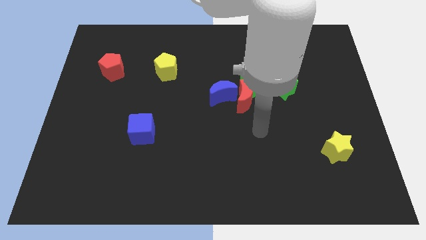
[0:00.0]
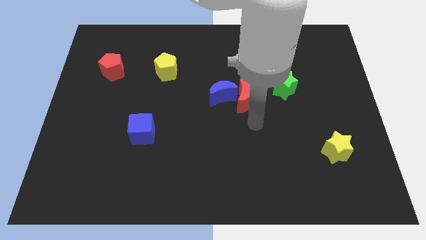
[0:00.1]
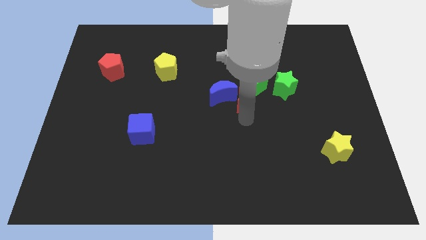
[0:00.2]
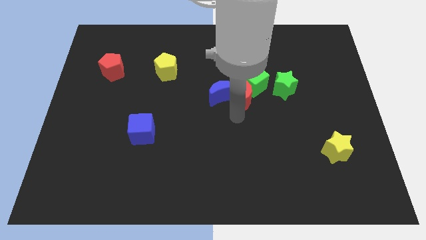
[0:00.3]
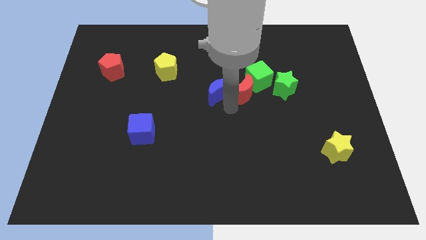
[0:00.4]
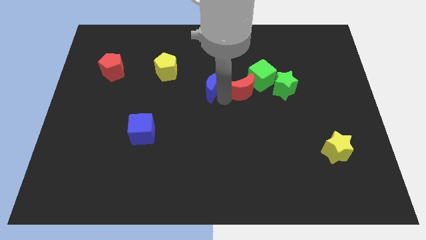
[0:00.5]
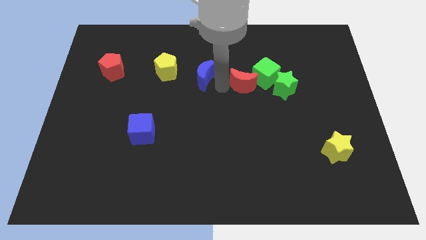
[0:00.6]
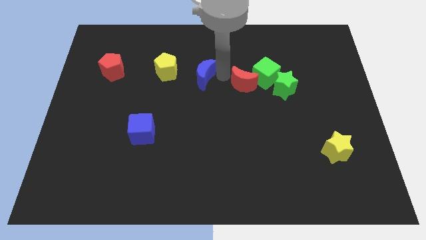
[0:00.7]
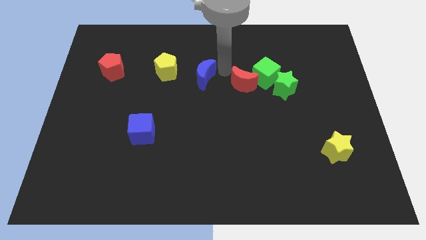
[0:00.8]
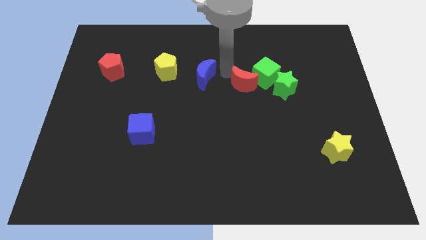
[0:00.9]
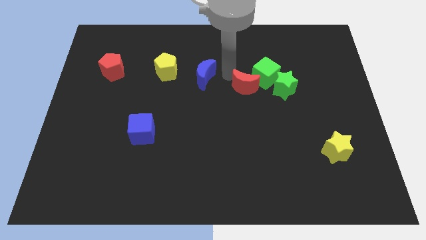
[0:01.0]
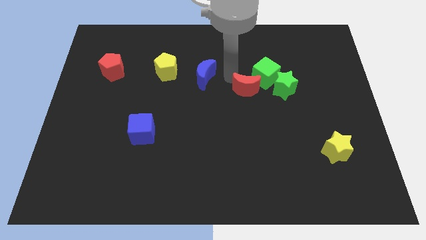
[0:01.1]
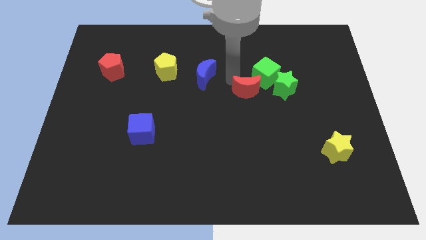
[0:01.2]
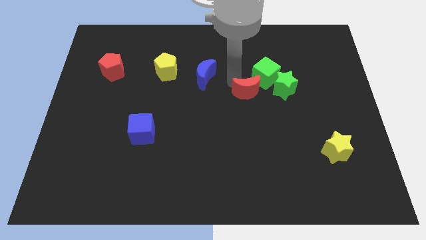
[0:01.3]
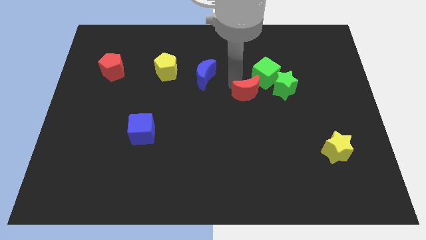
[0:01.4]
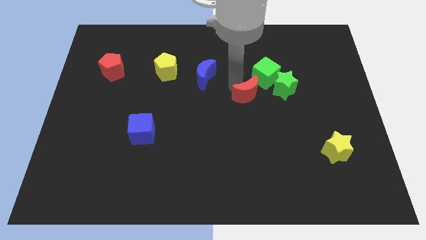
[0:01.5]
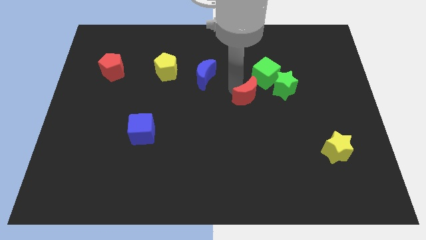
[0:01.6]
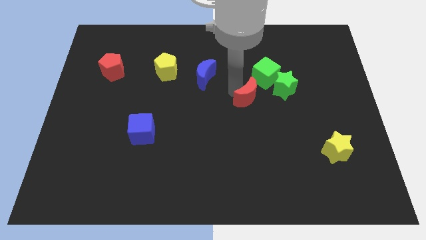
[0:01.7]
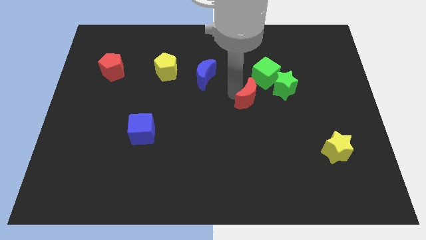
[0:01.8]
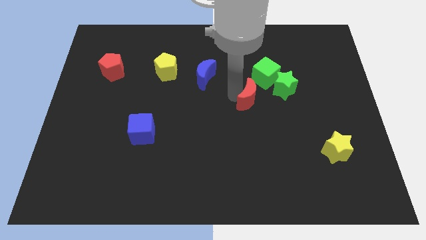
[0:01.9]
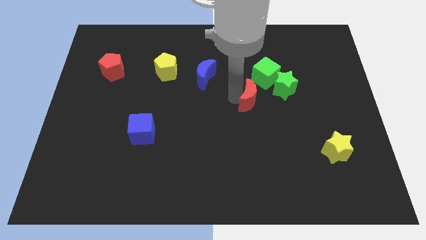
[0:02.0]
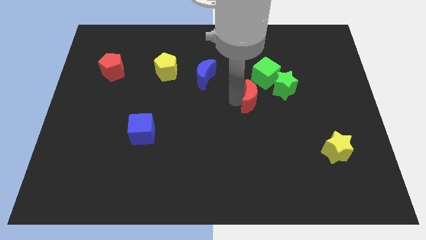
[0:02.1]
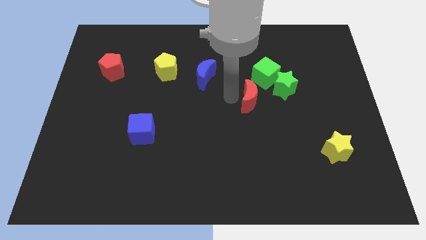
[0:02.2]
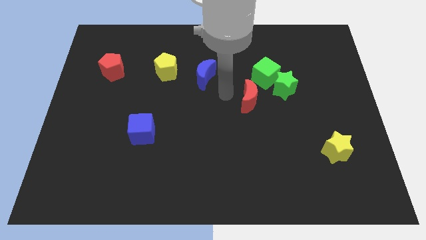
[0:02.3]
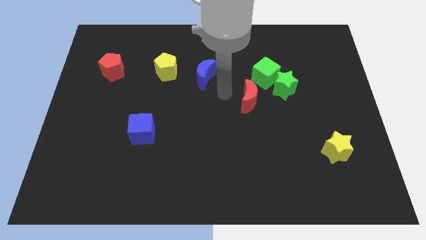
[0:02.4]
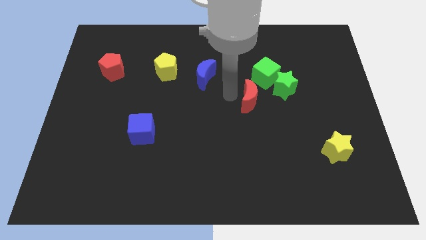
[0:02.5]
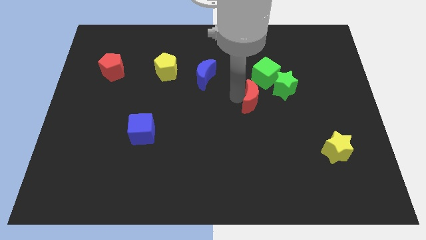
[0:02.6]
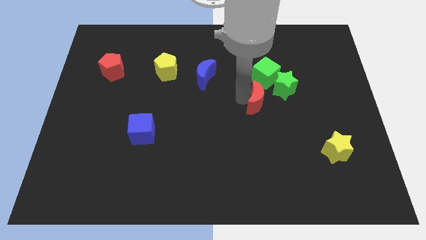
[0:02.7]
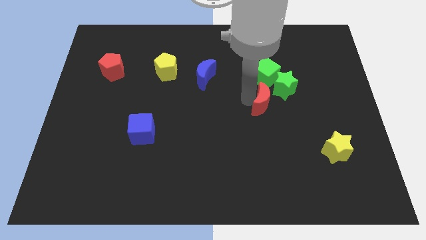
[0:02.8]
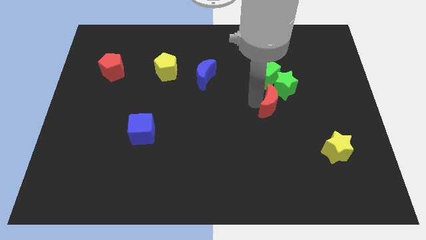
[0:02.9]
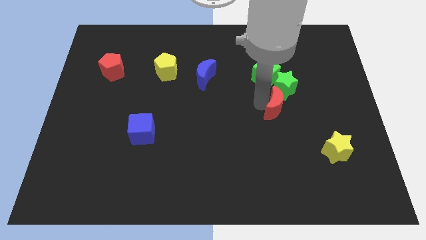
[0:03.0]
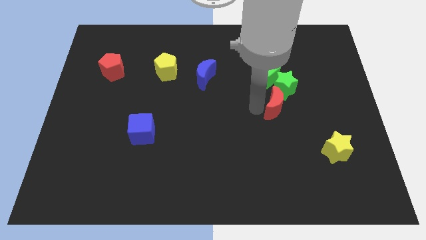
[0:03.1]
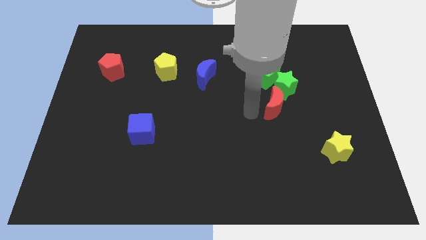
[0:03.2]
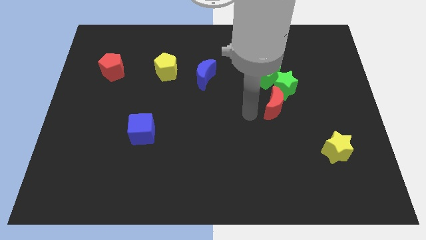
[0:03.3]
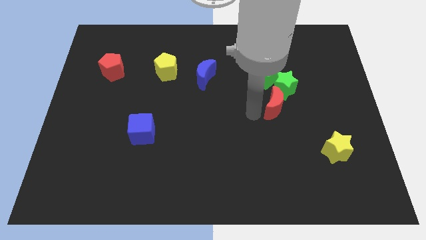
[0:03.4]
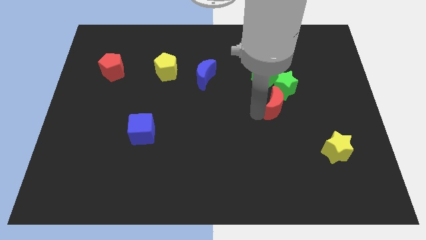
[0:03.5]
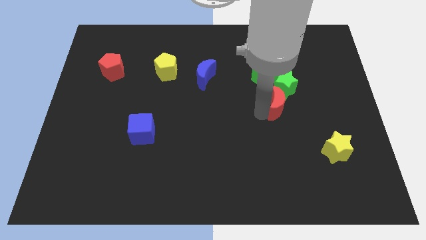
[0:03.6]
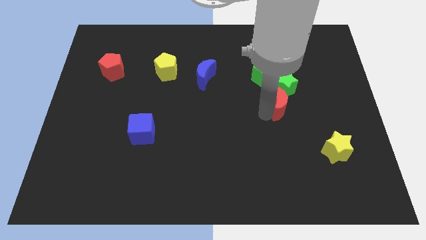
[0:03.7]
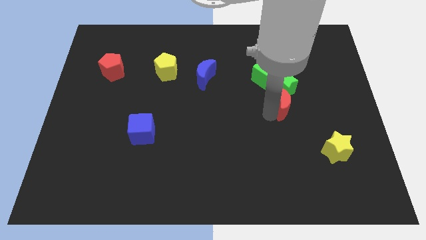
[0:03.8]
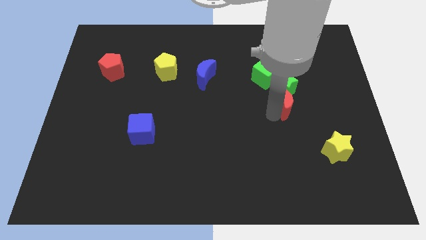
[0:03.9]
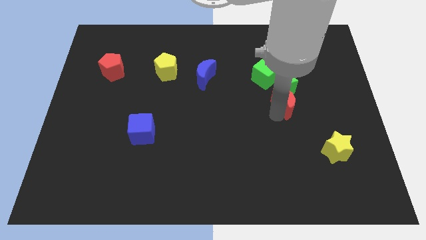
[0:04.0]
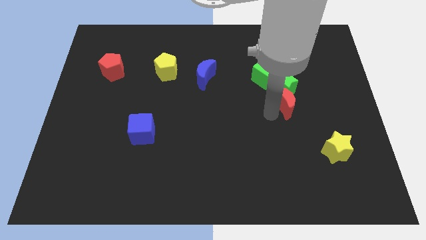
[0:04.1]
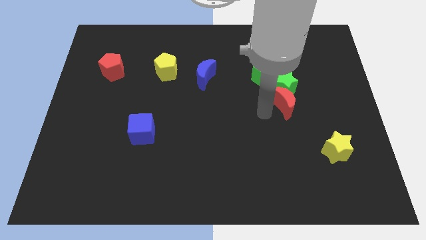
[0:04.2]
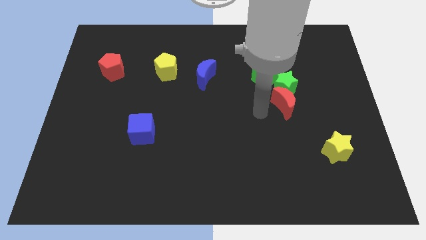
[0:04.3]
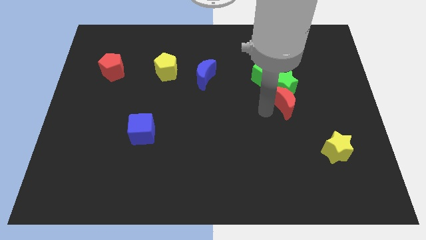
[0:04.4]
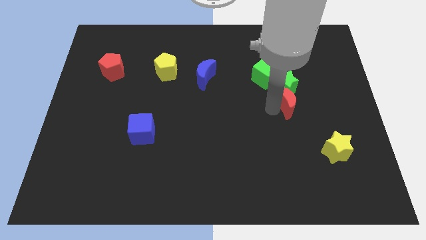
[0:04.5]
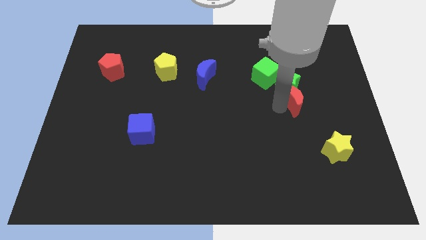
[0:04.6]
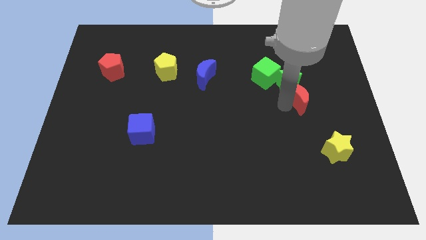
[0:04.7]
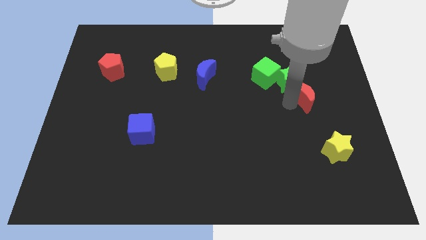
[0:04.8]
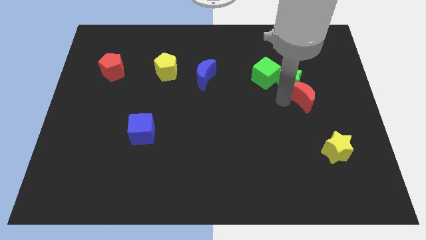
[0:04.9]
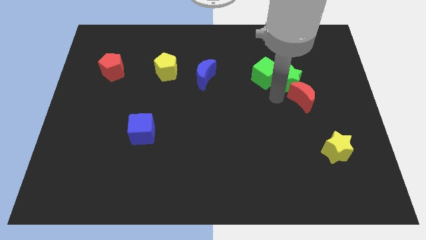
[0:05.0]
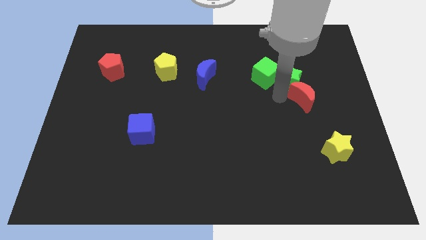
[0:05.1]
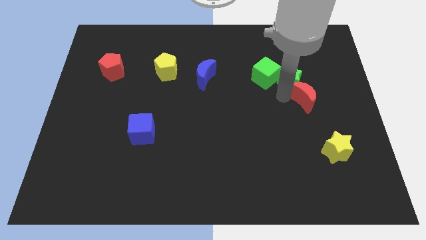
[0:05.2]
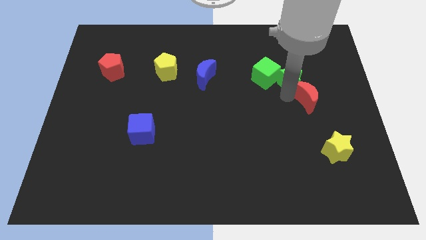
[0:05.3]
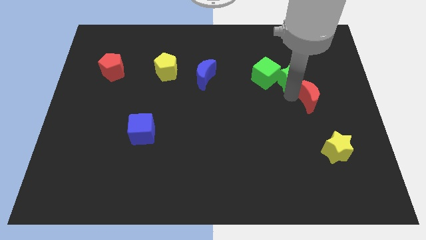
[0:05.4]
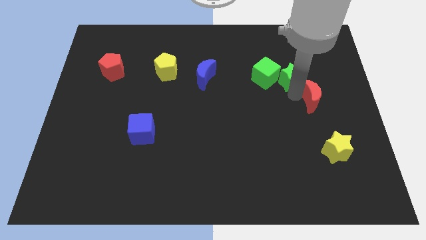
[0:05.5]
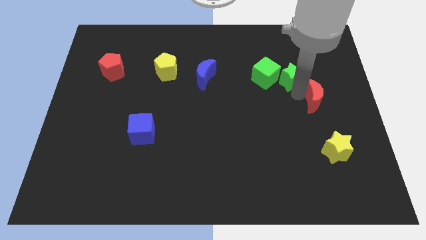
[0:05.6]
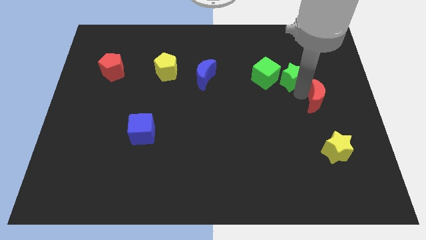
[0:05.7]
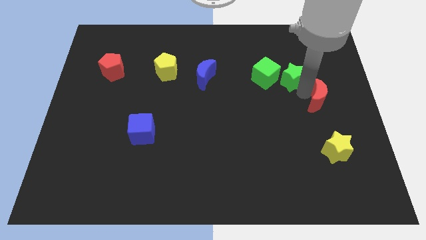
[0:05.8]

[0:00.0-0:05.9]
slide the red moon to the center right

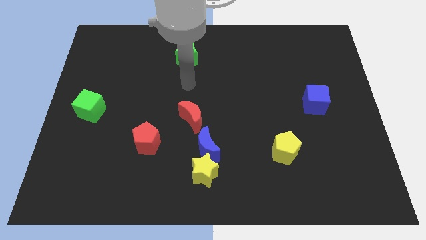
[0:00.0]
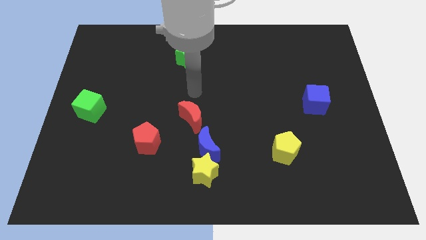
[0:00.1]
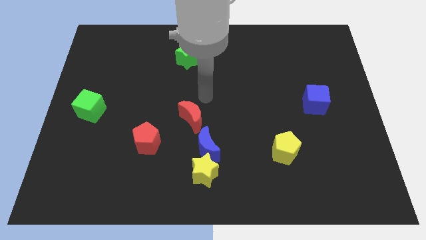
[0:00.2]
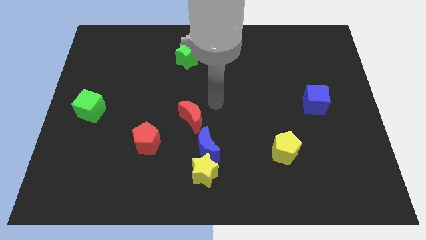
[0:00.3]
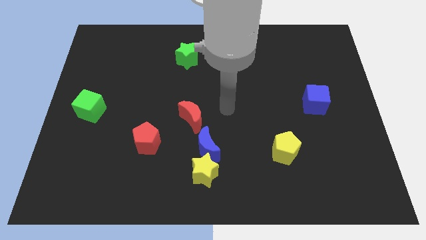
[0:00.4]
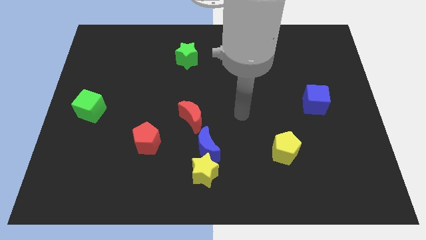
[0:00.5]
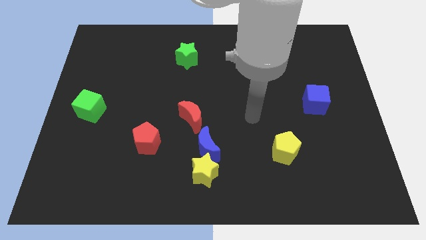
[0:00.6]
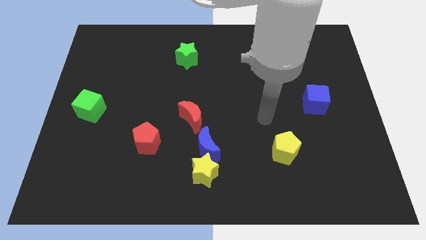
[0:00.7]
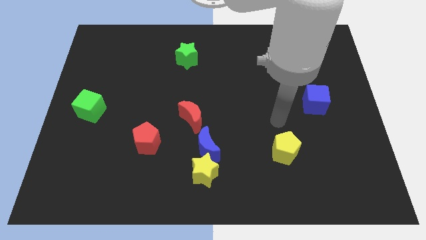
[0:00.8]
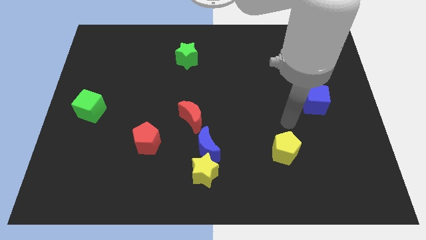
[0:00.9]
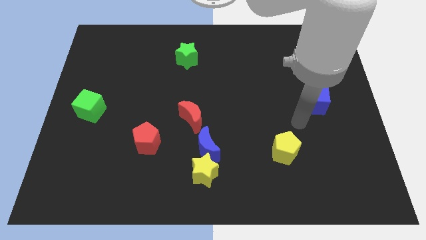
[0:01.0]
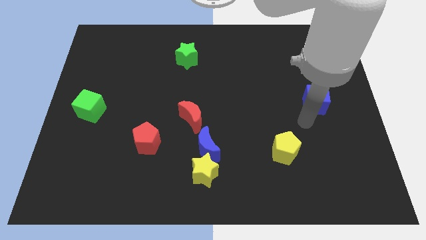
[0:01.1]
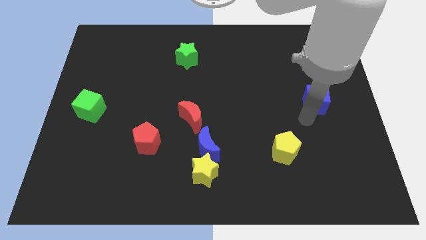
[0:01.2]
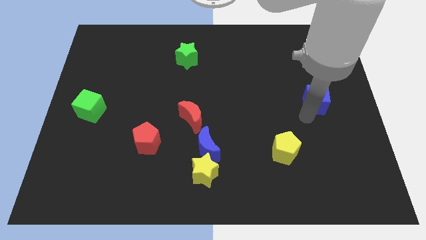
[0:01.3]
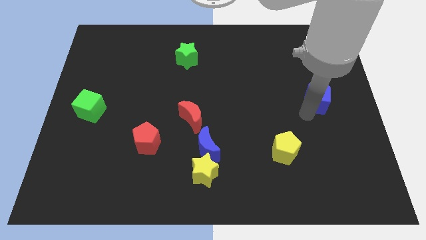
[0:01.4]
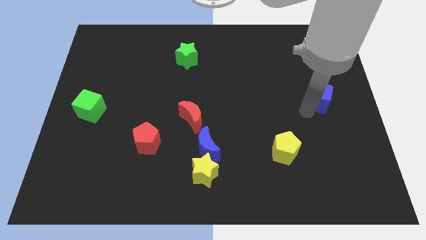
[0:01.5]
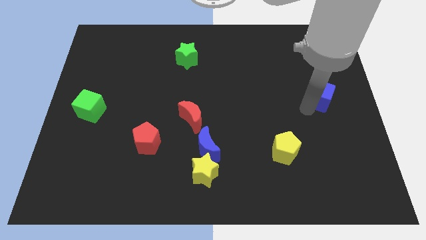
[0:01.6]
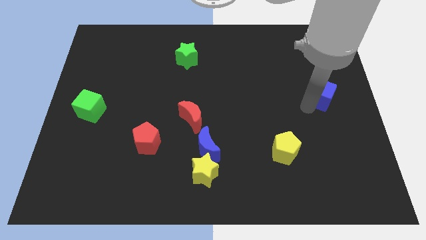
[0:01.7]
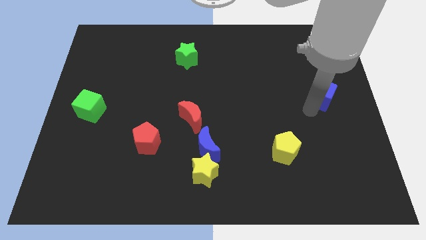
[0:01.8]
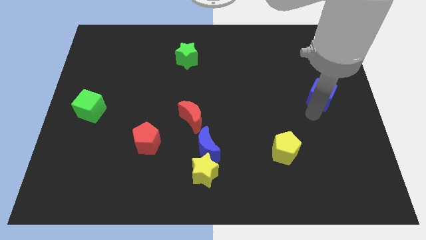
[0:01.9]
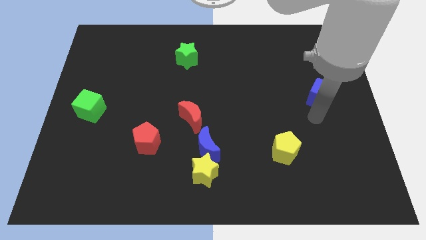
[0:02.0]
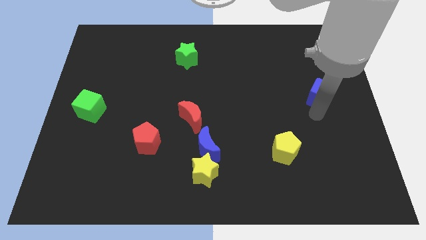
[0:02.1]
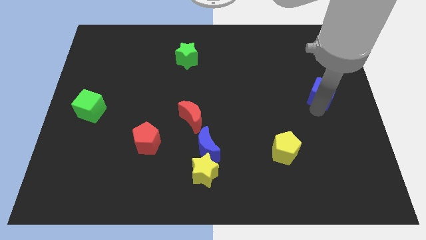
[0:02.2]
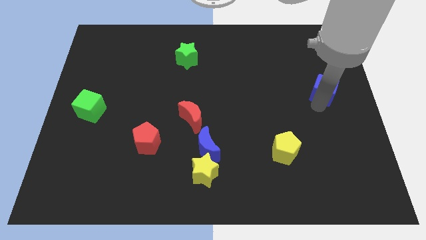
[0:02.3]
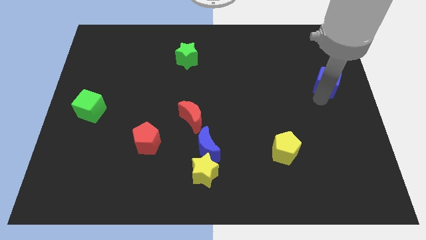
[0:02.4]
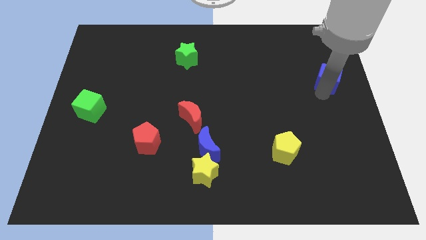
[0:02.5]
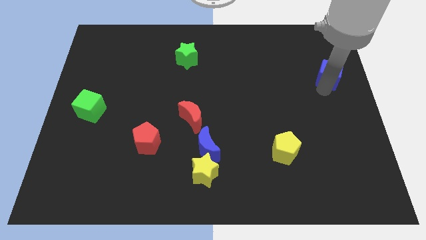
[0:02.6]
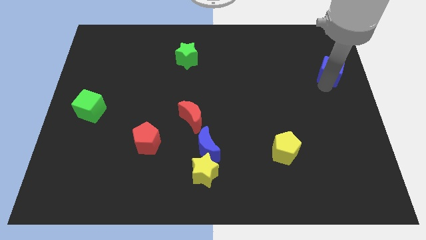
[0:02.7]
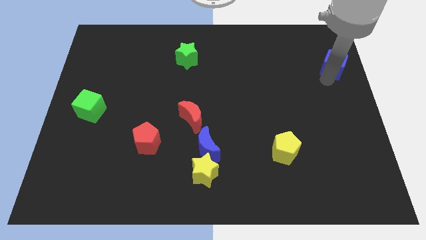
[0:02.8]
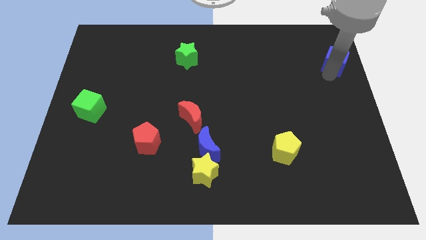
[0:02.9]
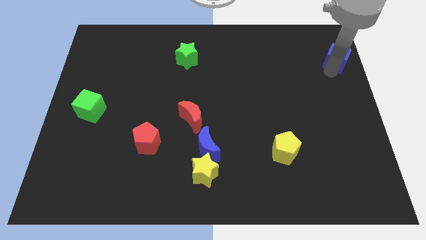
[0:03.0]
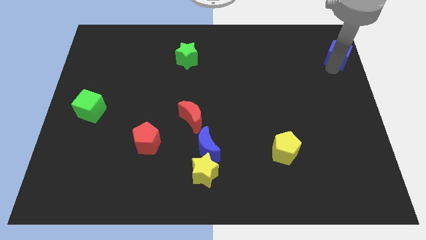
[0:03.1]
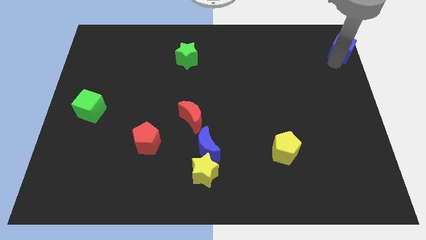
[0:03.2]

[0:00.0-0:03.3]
put the blue cube to the top right of the board
